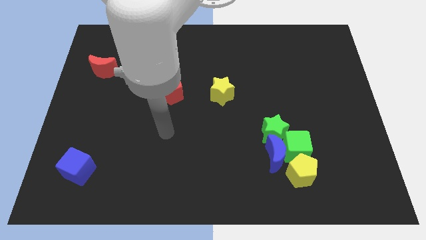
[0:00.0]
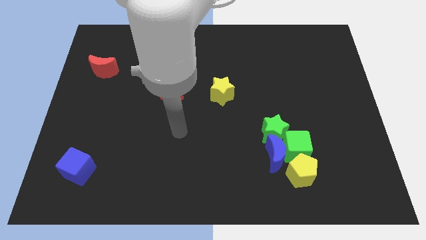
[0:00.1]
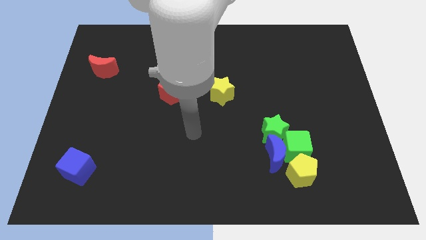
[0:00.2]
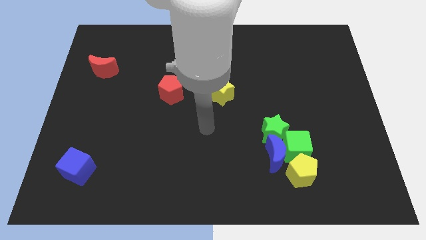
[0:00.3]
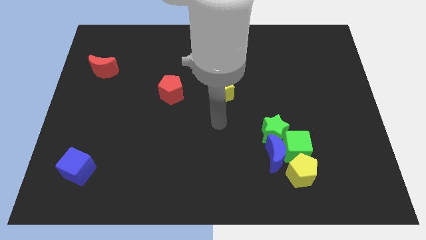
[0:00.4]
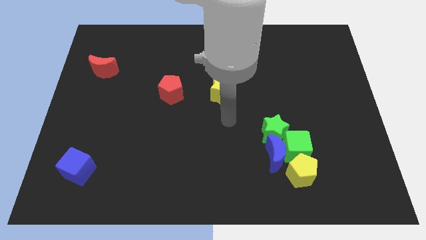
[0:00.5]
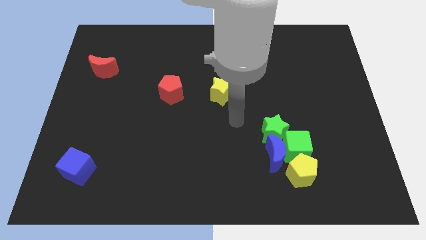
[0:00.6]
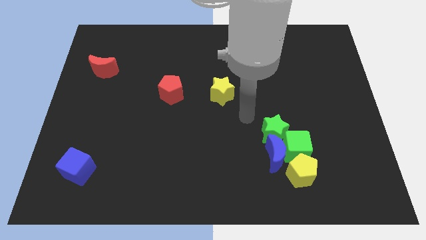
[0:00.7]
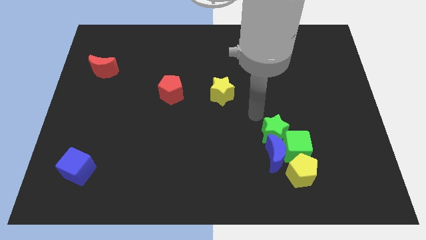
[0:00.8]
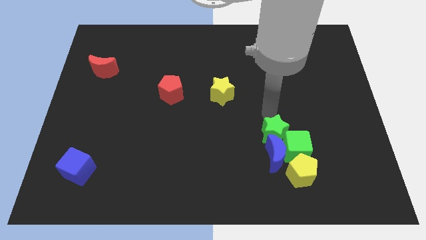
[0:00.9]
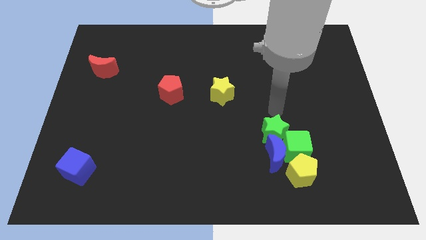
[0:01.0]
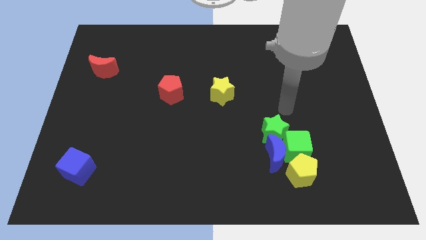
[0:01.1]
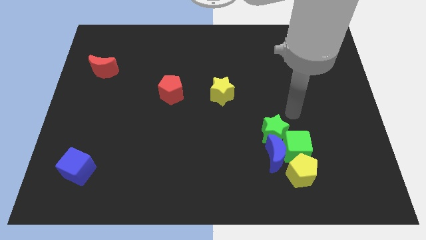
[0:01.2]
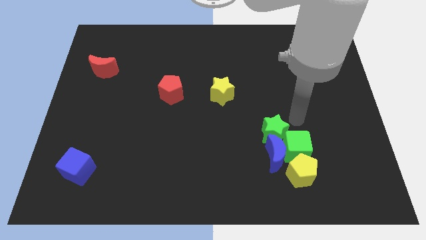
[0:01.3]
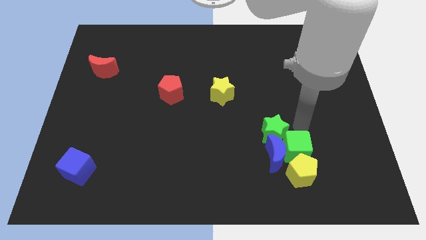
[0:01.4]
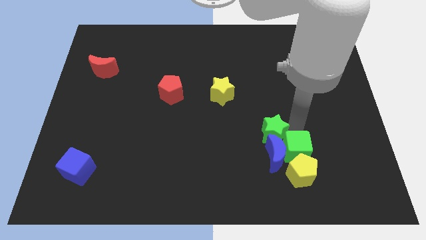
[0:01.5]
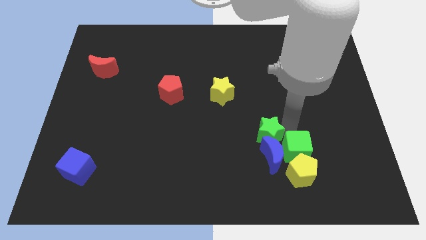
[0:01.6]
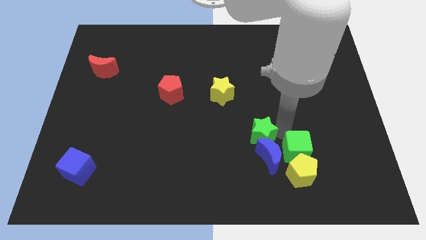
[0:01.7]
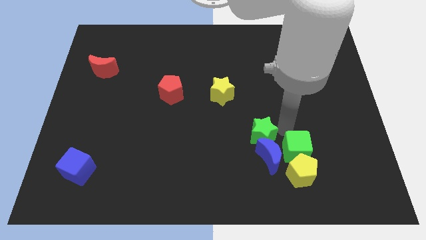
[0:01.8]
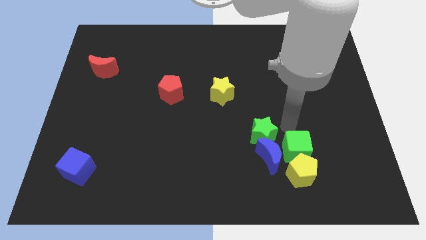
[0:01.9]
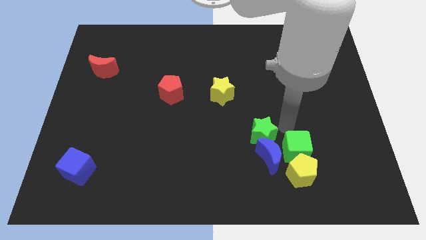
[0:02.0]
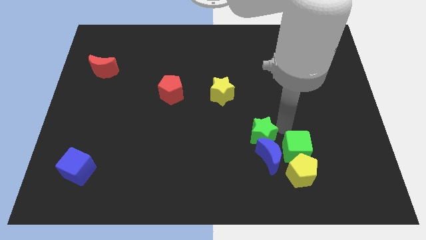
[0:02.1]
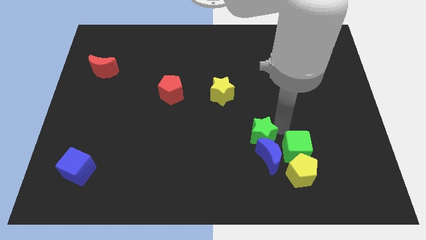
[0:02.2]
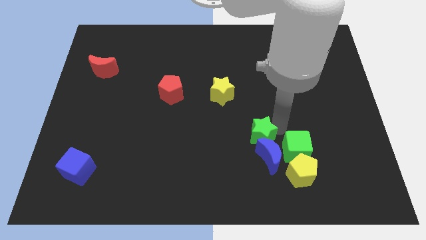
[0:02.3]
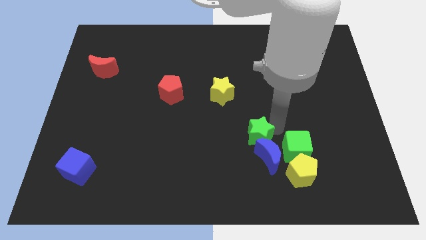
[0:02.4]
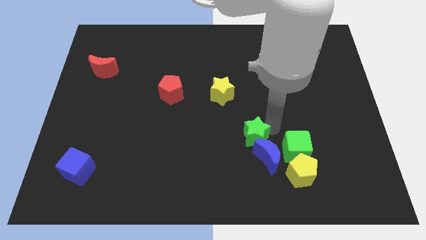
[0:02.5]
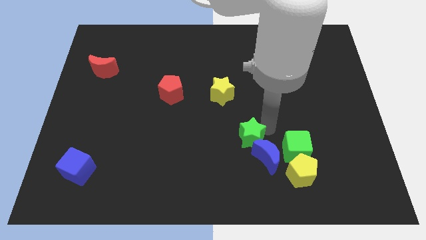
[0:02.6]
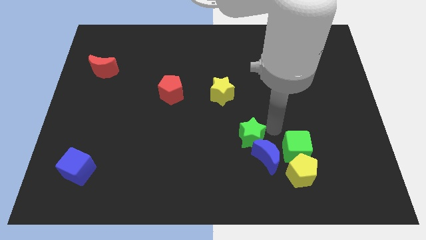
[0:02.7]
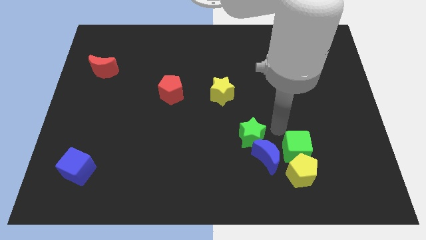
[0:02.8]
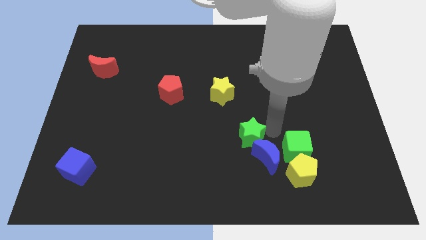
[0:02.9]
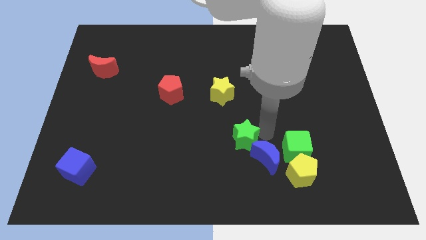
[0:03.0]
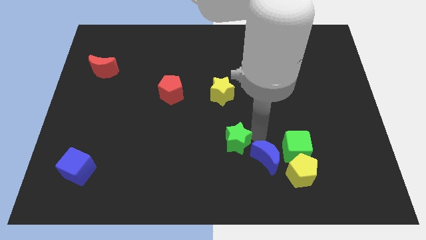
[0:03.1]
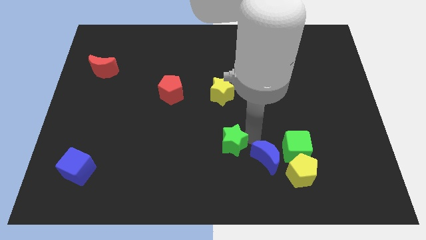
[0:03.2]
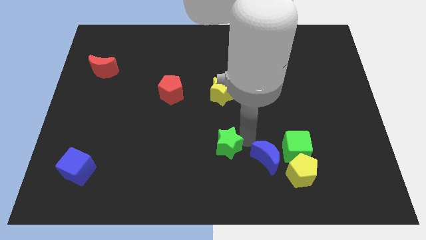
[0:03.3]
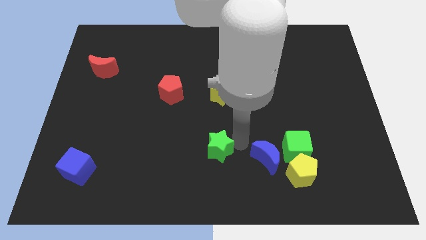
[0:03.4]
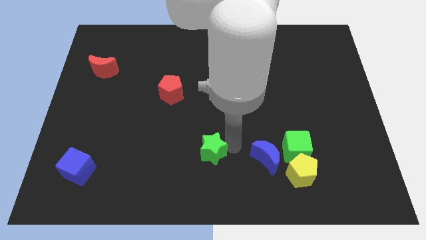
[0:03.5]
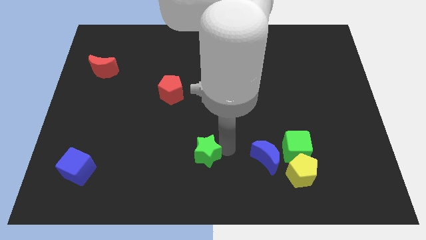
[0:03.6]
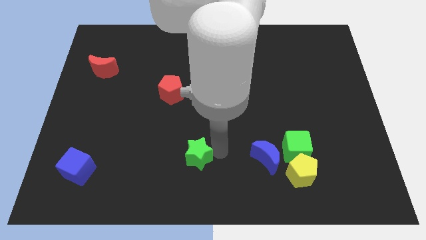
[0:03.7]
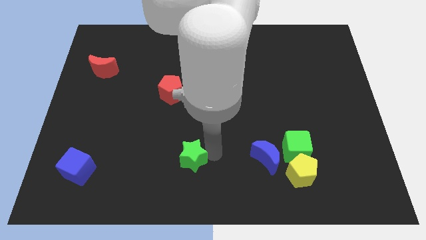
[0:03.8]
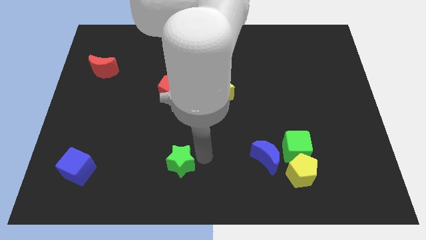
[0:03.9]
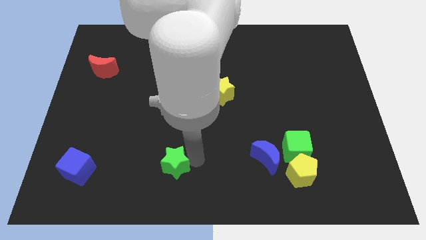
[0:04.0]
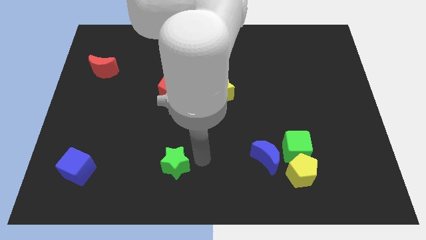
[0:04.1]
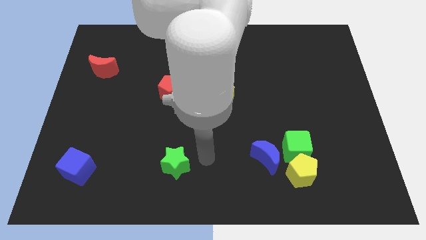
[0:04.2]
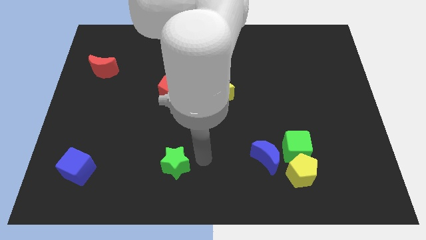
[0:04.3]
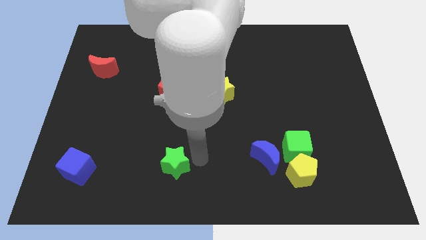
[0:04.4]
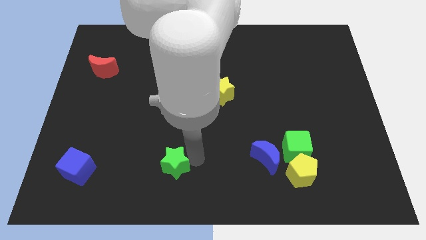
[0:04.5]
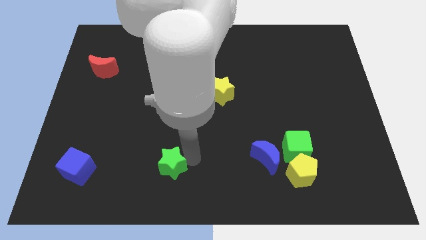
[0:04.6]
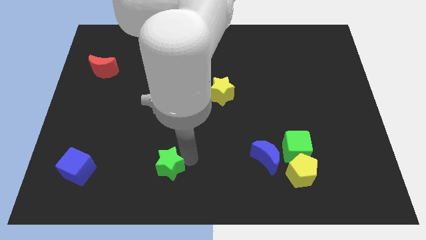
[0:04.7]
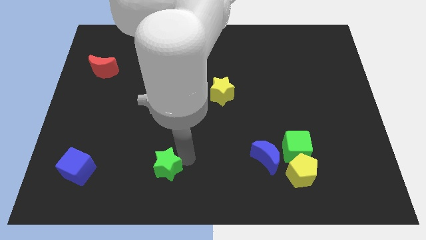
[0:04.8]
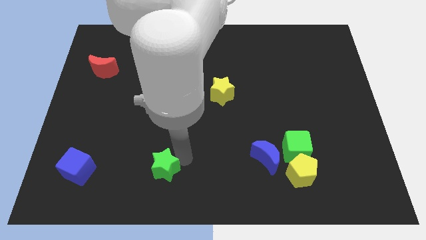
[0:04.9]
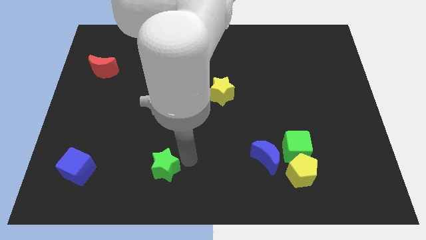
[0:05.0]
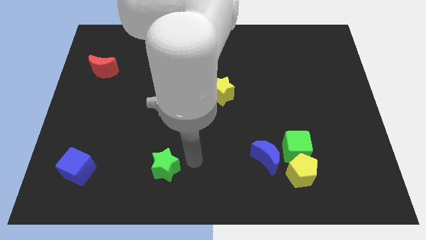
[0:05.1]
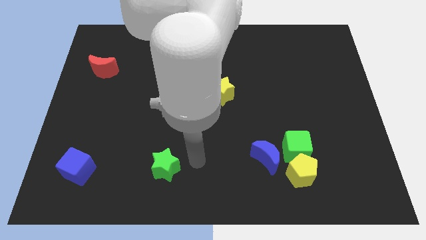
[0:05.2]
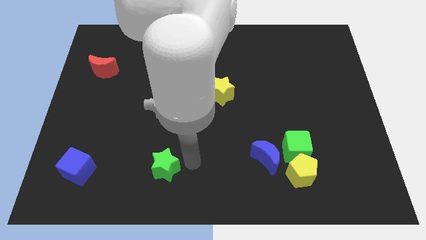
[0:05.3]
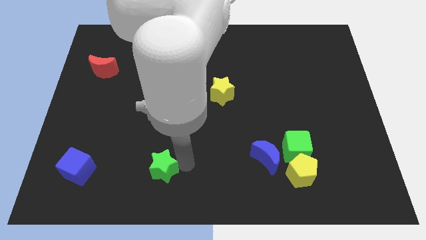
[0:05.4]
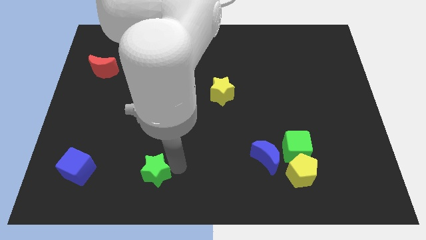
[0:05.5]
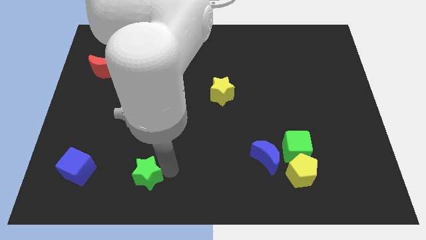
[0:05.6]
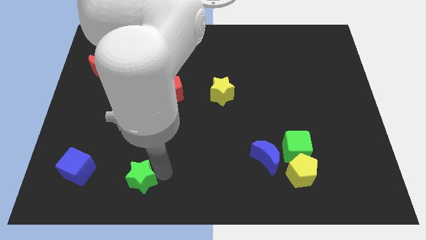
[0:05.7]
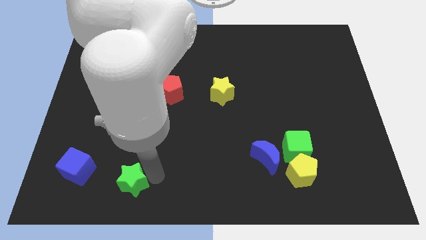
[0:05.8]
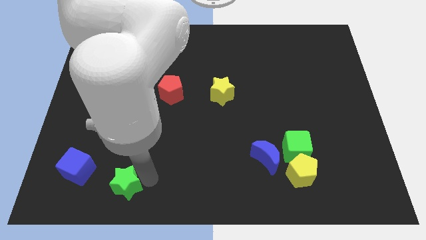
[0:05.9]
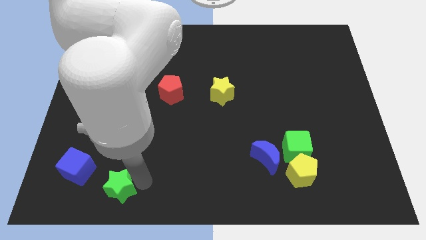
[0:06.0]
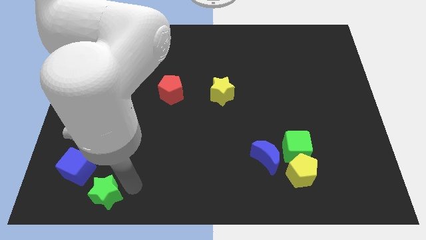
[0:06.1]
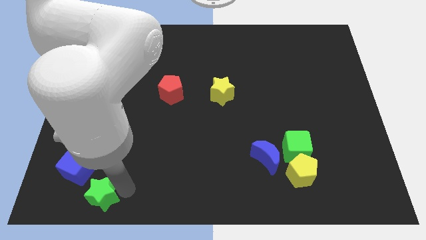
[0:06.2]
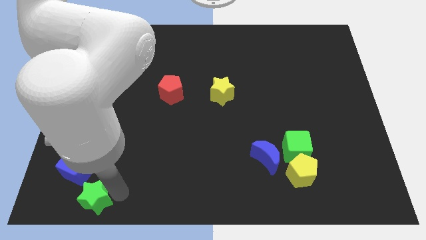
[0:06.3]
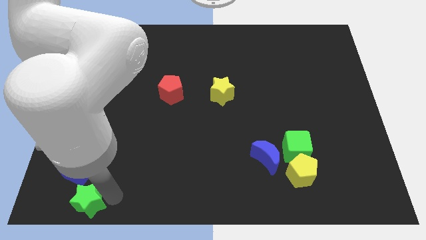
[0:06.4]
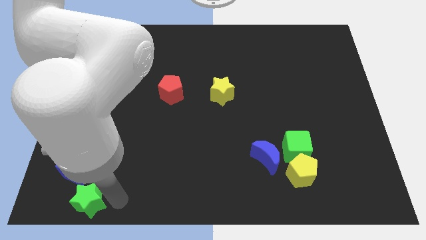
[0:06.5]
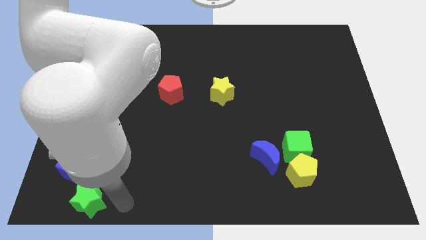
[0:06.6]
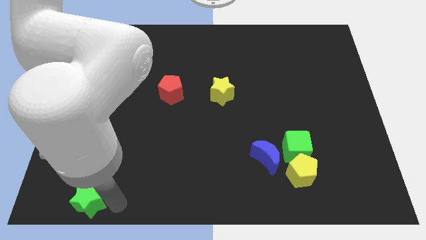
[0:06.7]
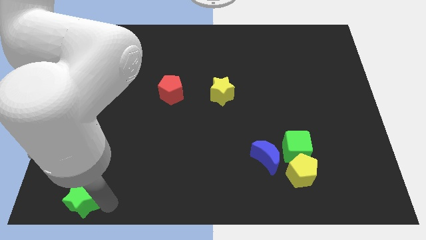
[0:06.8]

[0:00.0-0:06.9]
put the green star to the bottom left corner
